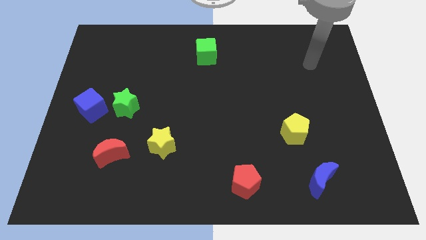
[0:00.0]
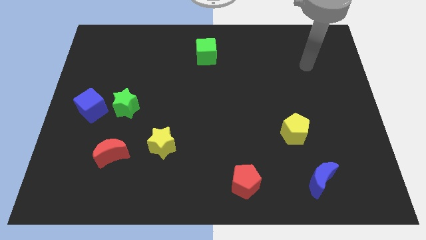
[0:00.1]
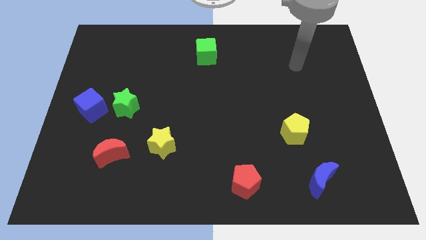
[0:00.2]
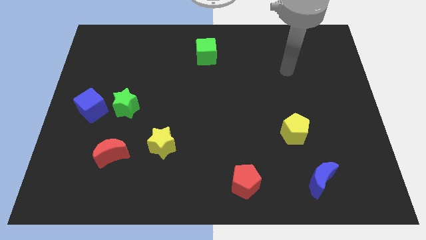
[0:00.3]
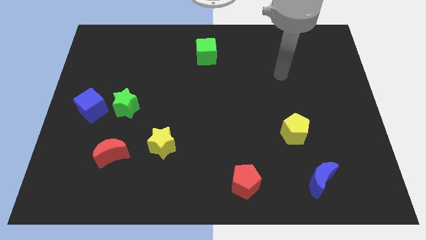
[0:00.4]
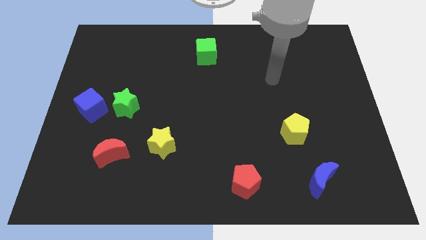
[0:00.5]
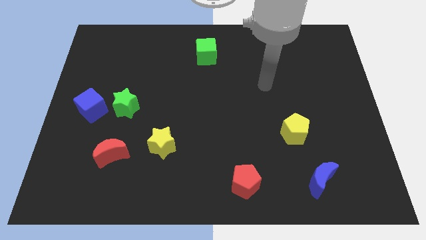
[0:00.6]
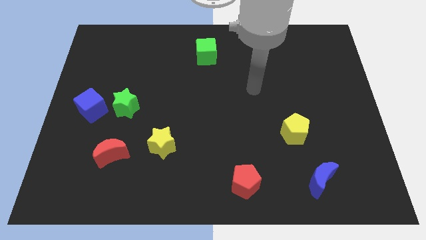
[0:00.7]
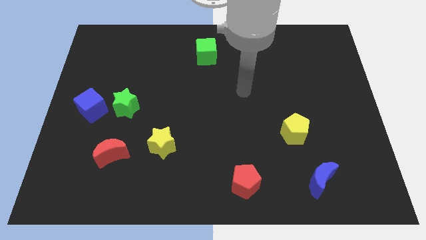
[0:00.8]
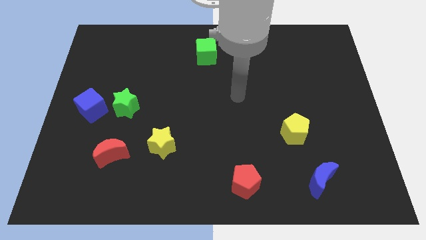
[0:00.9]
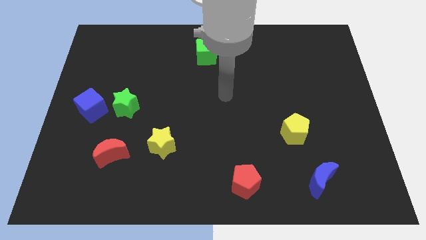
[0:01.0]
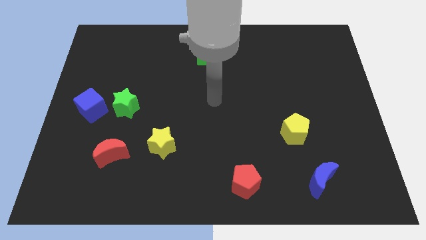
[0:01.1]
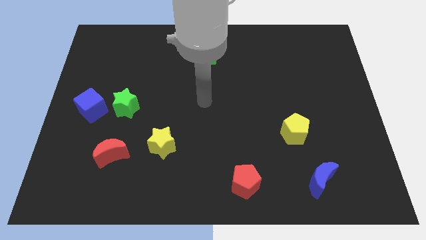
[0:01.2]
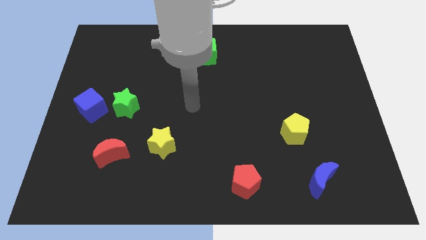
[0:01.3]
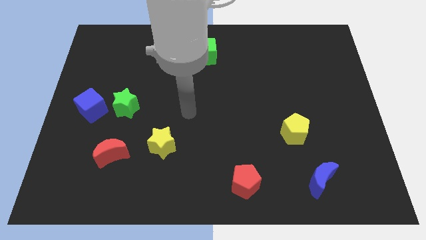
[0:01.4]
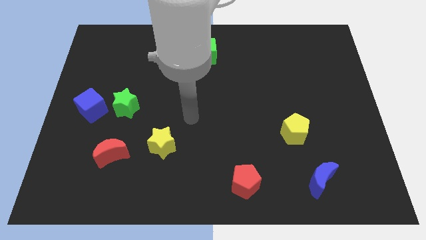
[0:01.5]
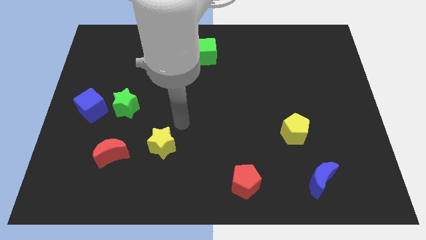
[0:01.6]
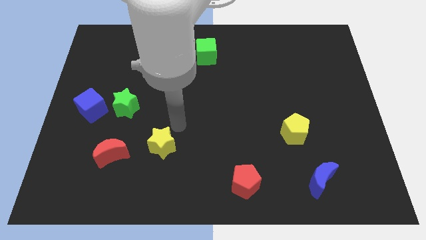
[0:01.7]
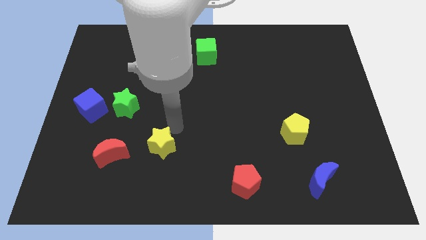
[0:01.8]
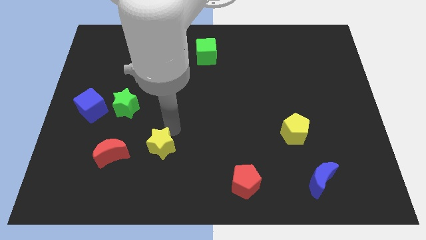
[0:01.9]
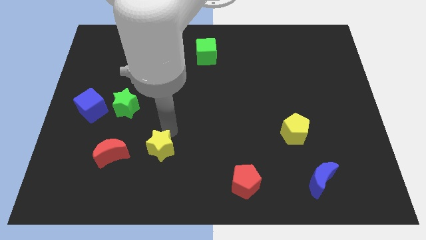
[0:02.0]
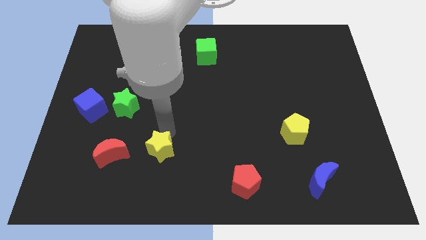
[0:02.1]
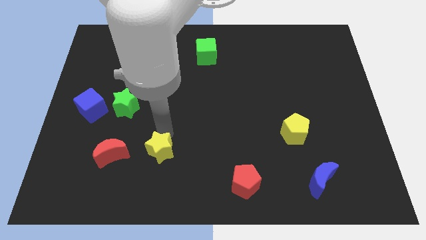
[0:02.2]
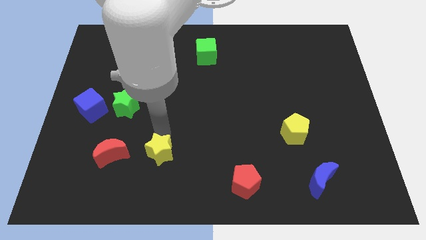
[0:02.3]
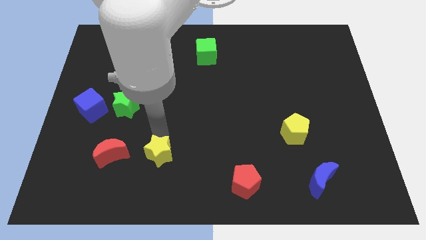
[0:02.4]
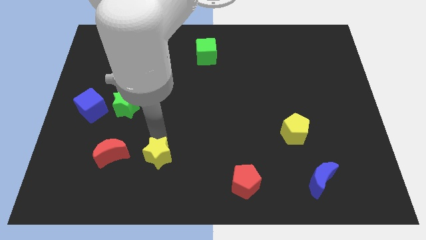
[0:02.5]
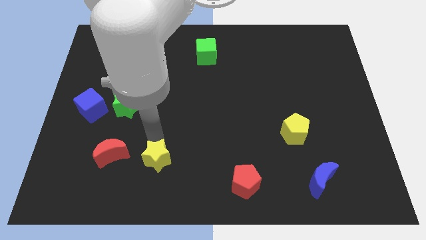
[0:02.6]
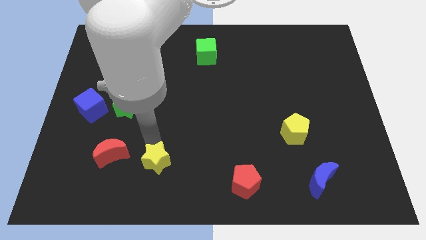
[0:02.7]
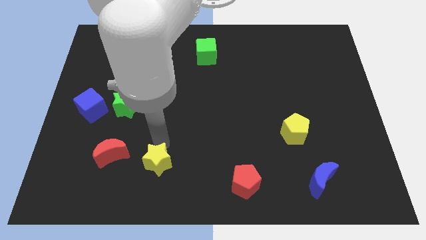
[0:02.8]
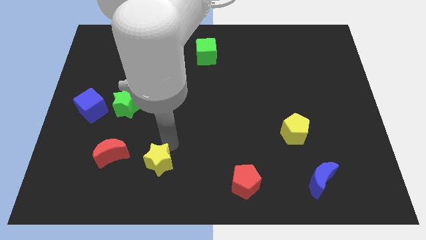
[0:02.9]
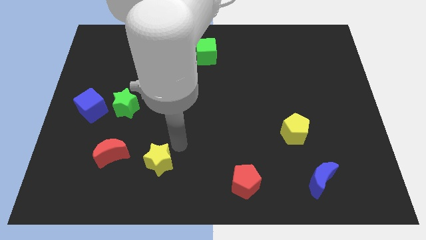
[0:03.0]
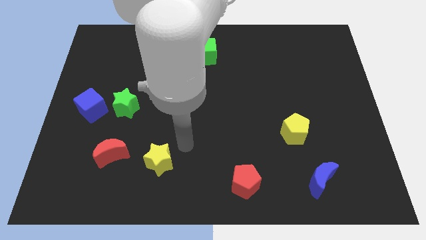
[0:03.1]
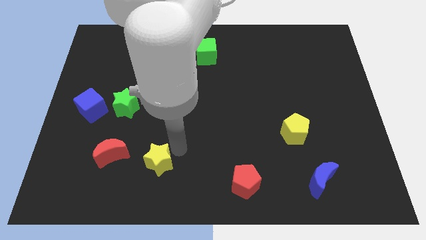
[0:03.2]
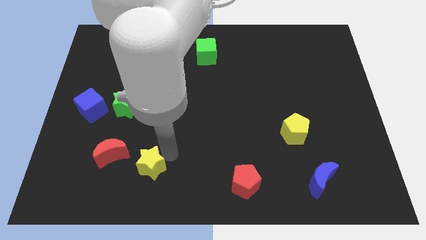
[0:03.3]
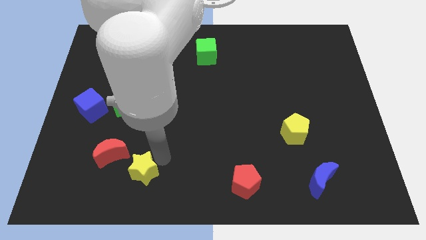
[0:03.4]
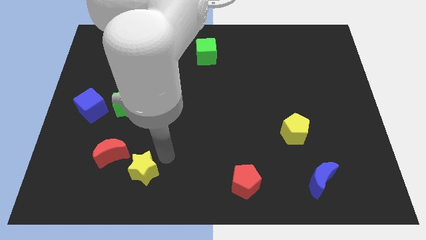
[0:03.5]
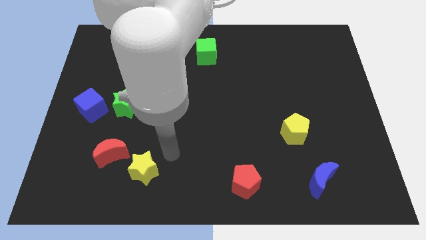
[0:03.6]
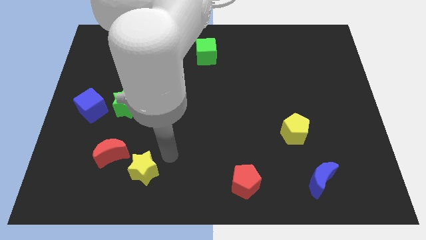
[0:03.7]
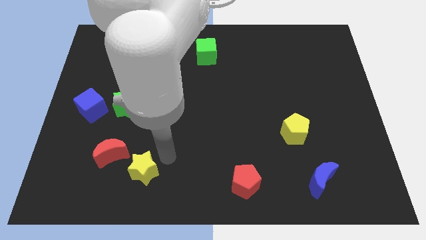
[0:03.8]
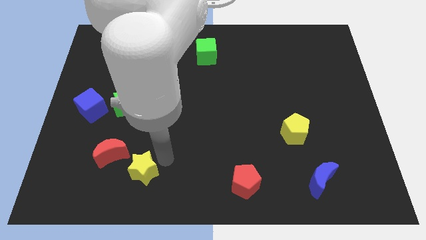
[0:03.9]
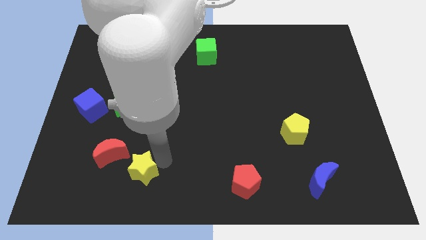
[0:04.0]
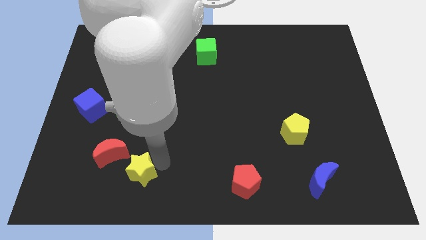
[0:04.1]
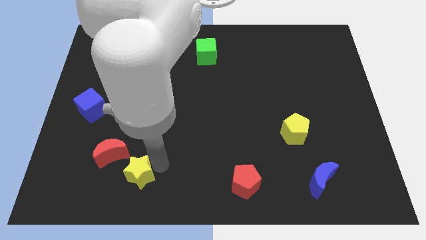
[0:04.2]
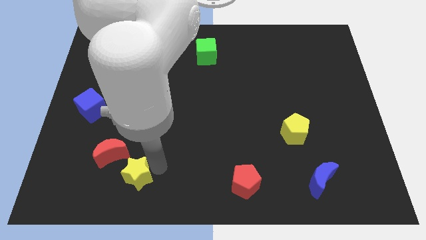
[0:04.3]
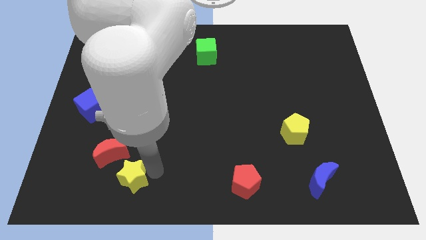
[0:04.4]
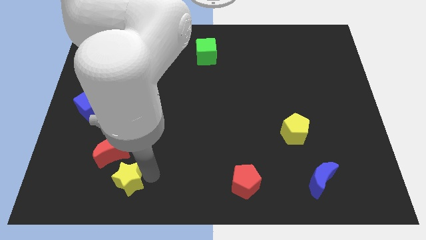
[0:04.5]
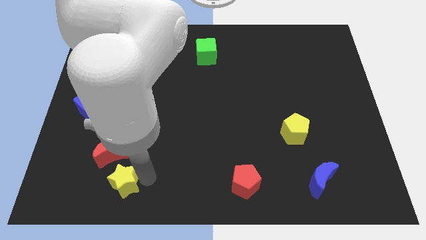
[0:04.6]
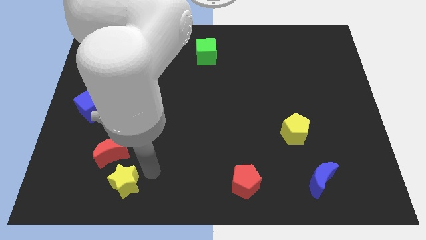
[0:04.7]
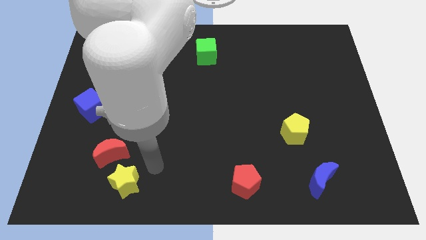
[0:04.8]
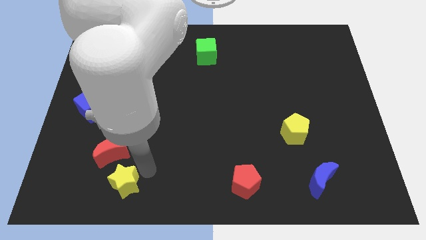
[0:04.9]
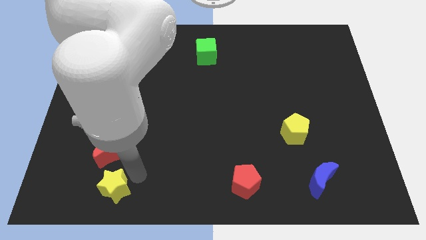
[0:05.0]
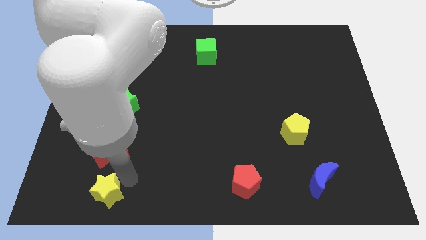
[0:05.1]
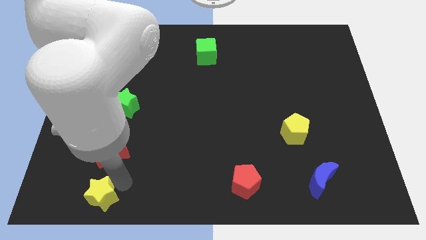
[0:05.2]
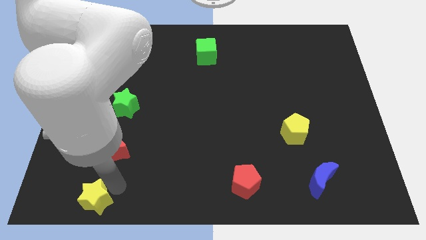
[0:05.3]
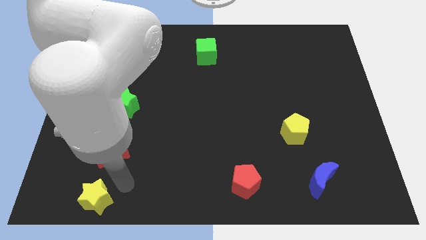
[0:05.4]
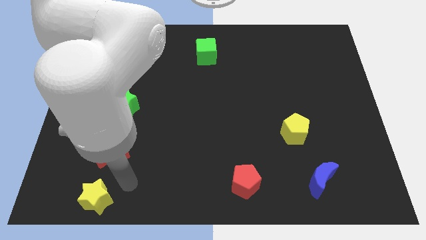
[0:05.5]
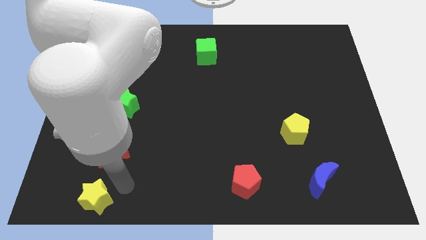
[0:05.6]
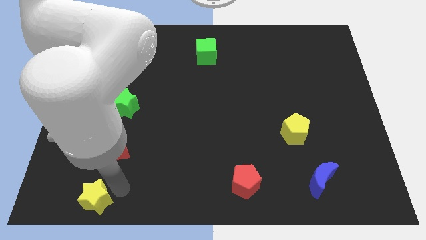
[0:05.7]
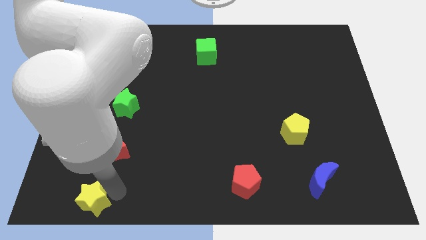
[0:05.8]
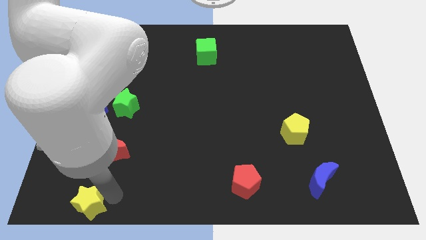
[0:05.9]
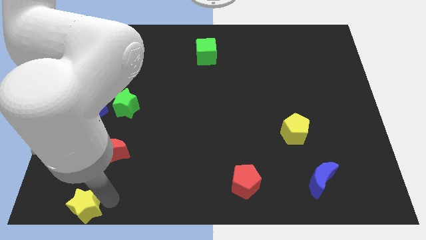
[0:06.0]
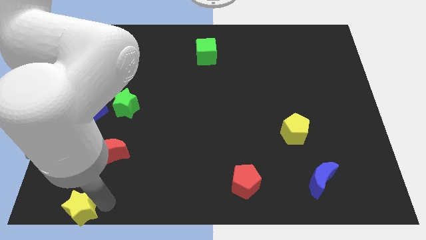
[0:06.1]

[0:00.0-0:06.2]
slide the yellow star to the bottom left corner

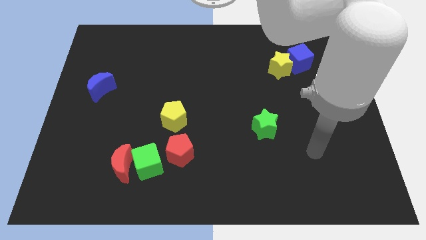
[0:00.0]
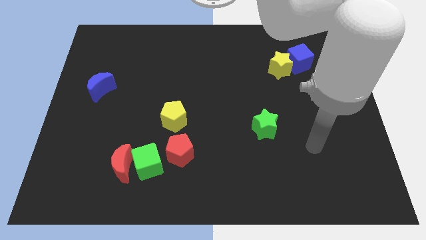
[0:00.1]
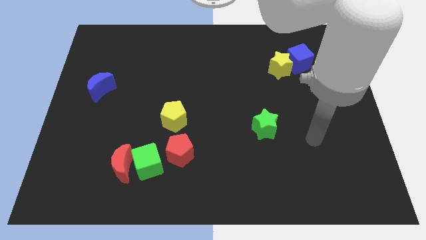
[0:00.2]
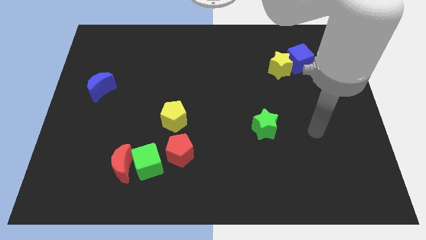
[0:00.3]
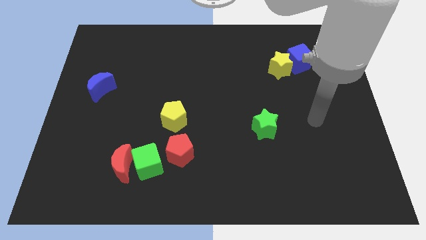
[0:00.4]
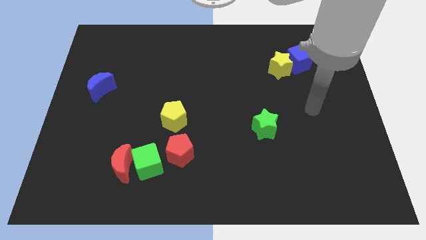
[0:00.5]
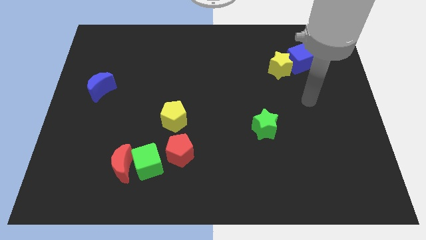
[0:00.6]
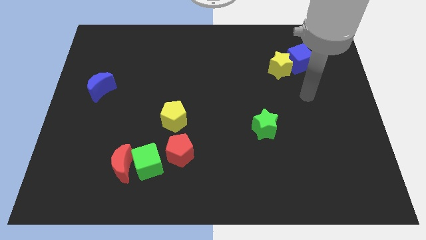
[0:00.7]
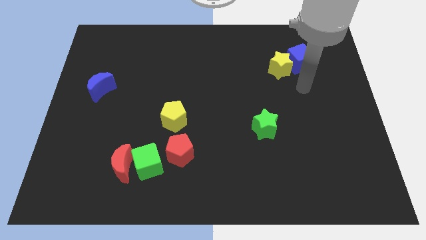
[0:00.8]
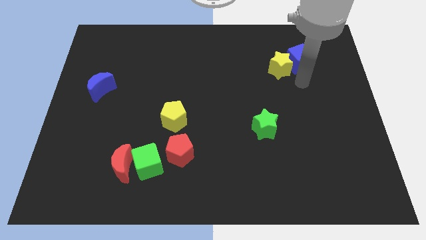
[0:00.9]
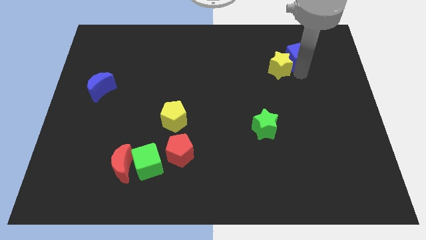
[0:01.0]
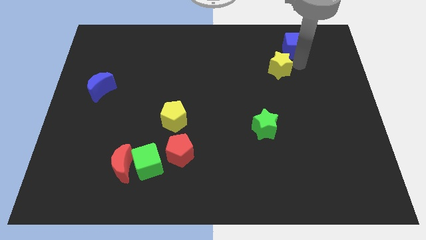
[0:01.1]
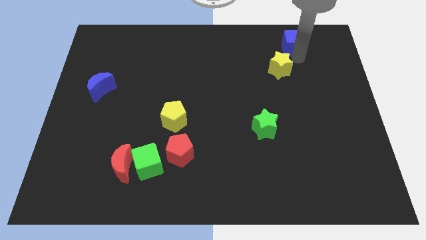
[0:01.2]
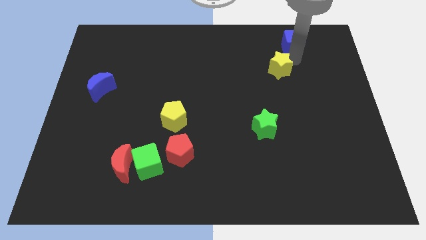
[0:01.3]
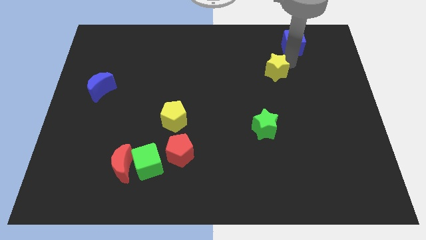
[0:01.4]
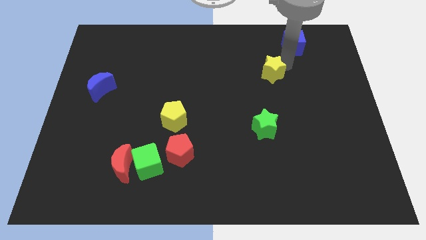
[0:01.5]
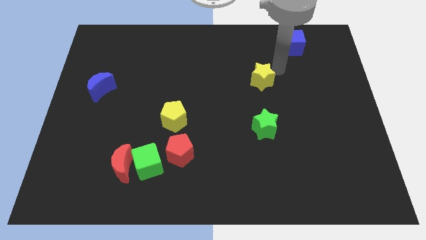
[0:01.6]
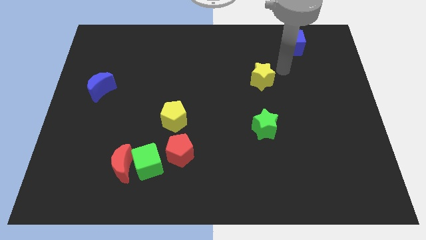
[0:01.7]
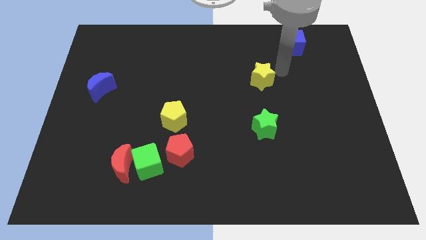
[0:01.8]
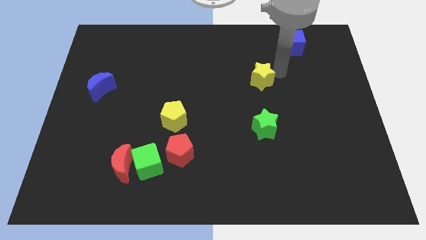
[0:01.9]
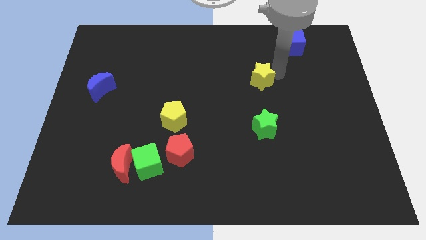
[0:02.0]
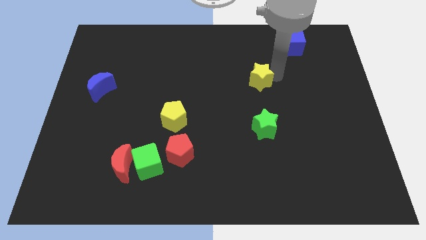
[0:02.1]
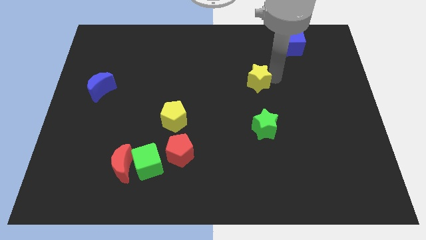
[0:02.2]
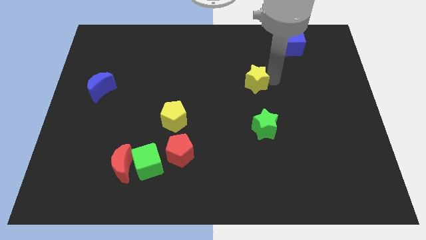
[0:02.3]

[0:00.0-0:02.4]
slide the yellow star to the center of the board
